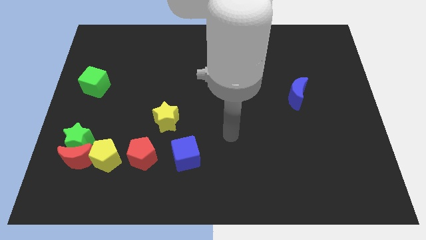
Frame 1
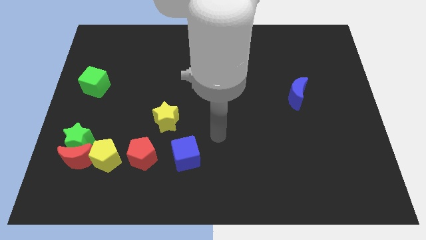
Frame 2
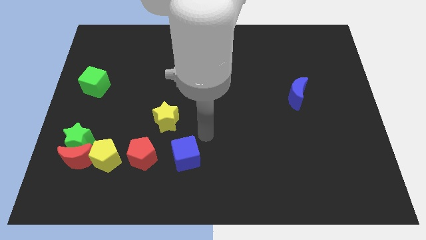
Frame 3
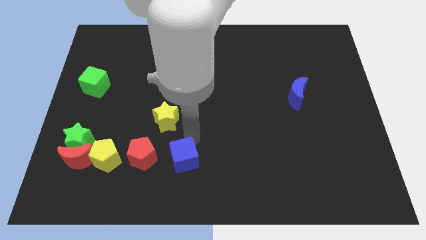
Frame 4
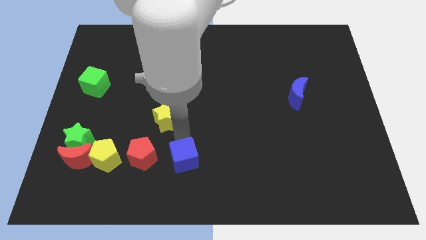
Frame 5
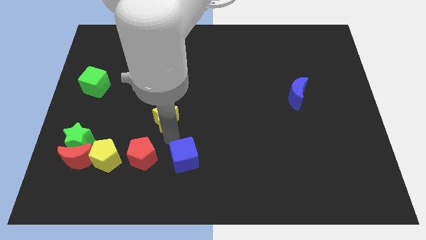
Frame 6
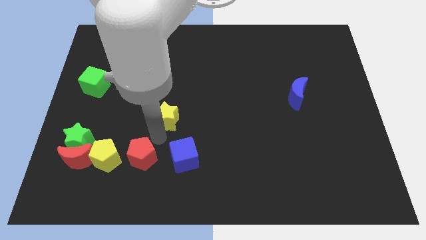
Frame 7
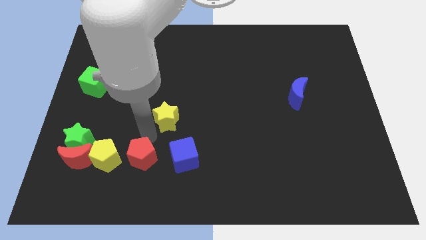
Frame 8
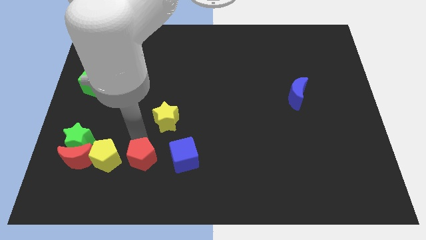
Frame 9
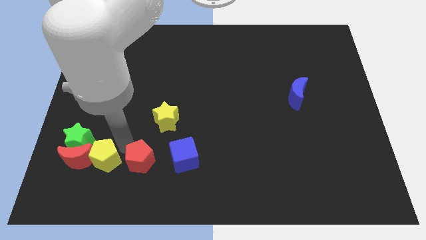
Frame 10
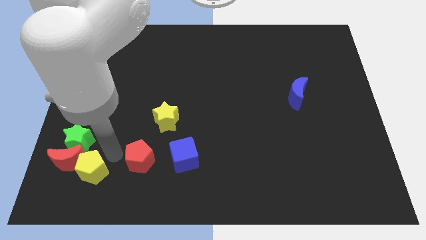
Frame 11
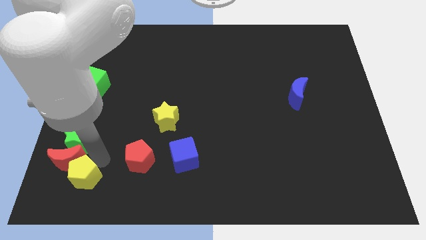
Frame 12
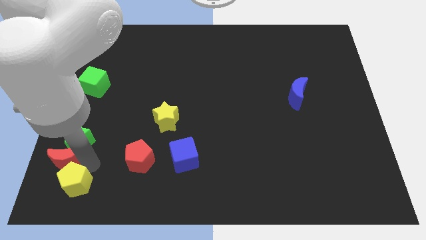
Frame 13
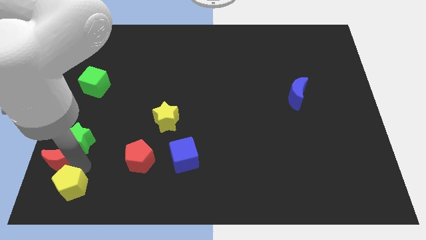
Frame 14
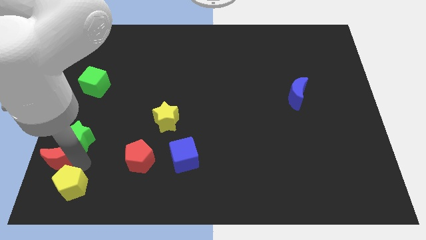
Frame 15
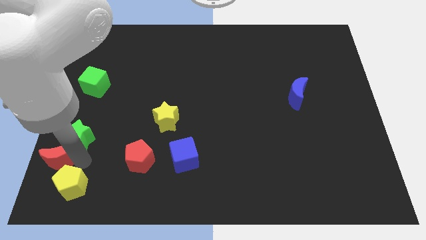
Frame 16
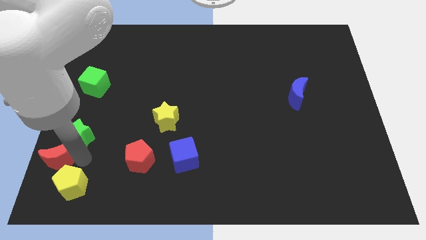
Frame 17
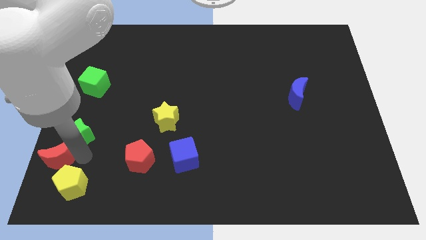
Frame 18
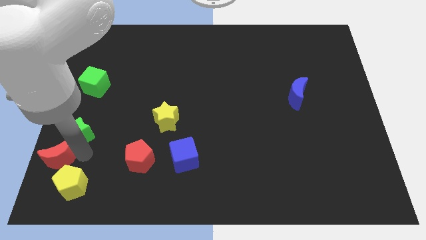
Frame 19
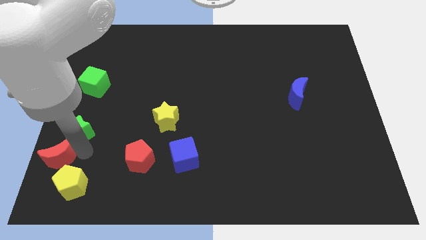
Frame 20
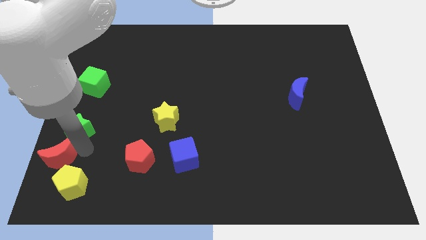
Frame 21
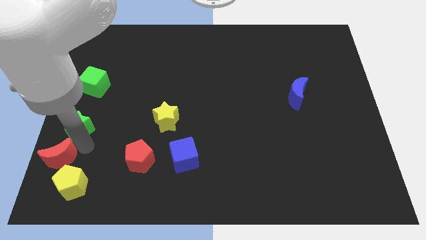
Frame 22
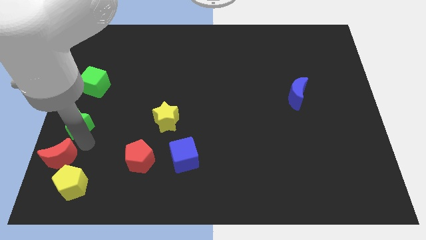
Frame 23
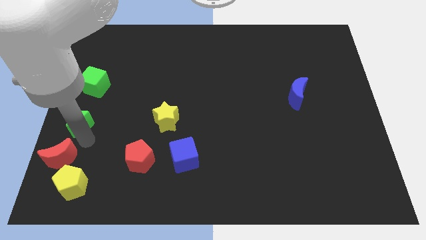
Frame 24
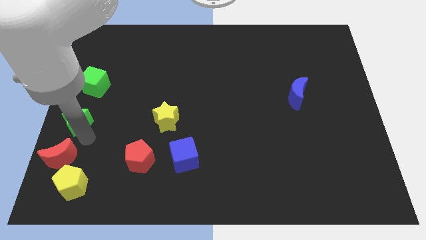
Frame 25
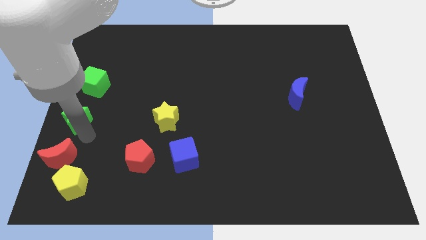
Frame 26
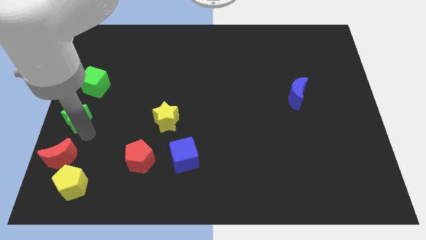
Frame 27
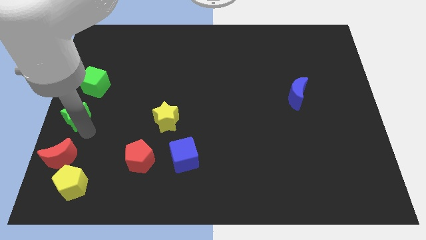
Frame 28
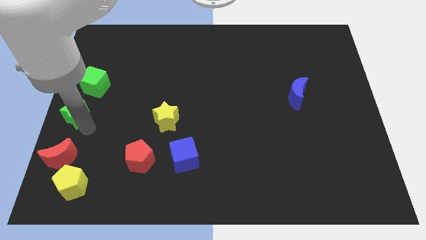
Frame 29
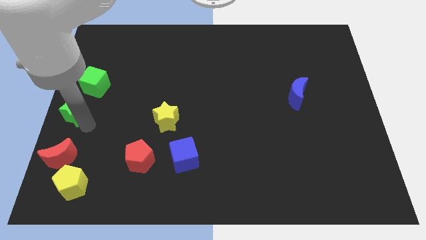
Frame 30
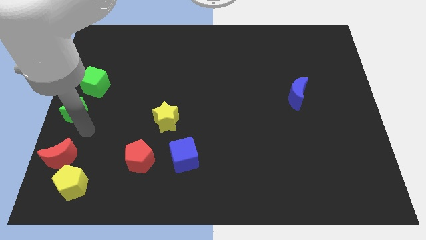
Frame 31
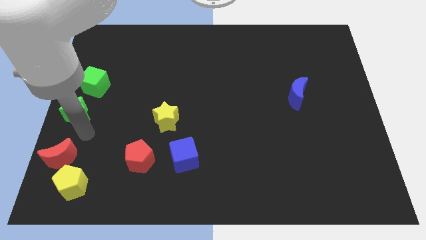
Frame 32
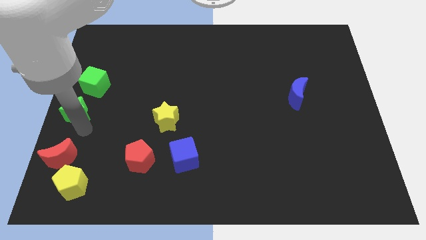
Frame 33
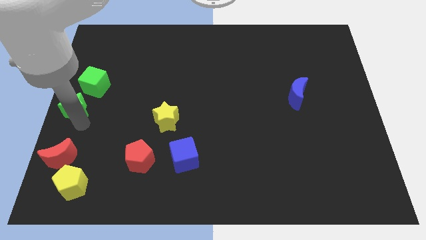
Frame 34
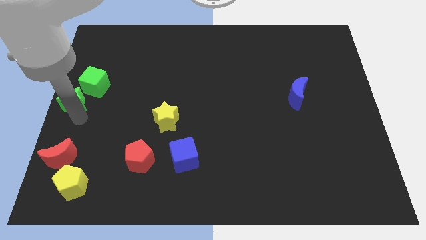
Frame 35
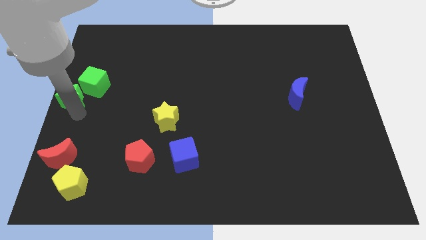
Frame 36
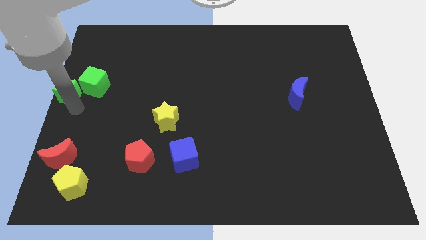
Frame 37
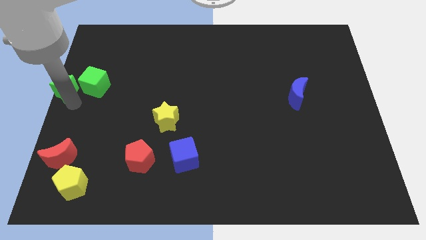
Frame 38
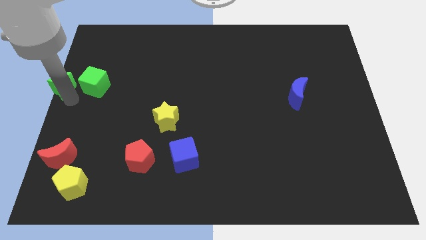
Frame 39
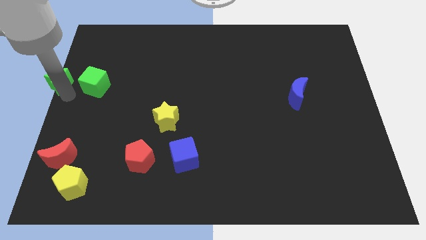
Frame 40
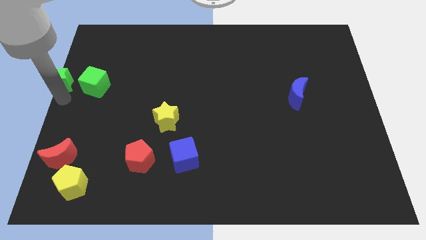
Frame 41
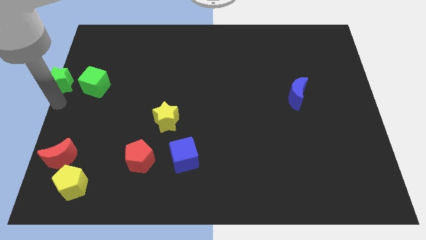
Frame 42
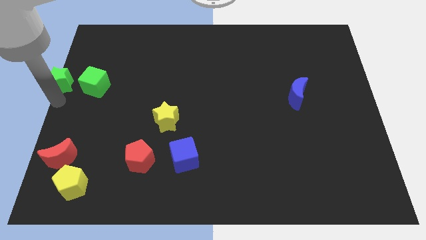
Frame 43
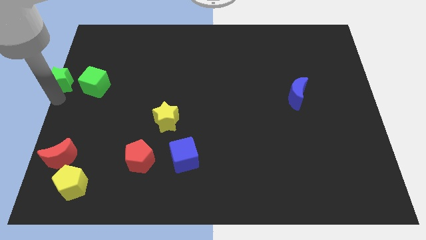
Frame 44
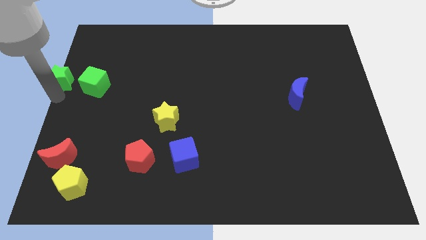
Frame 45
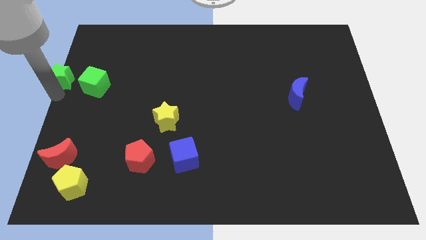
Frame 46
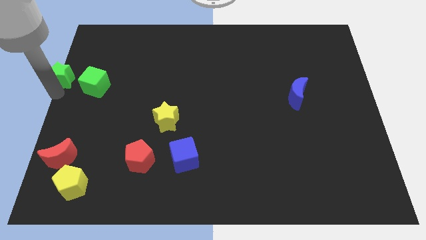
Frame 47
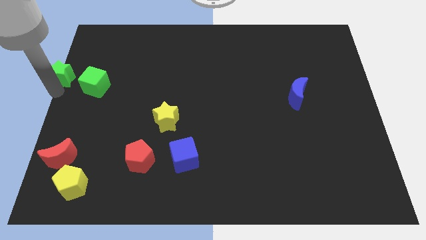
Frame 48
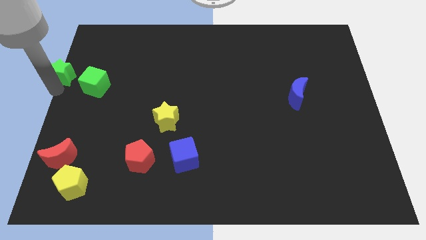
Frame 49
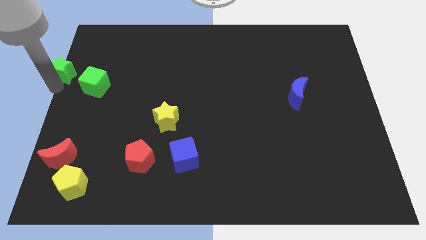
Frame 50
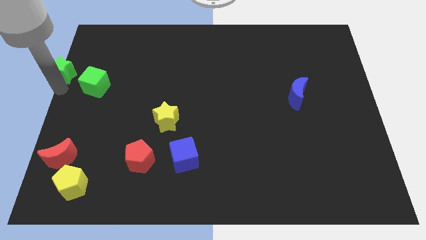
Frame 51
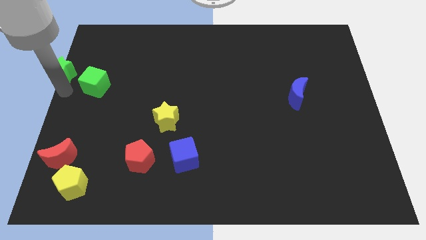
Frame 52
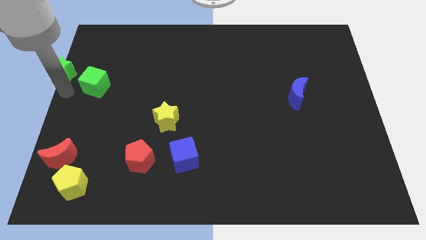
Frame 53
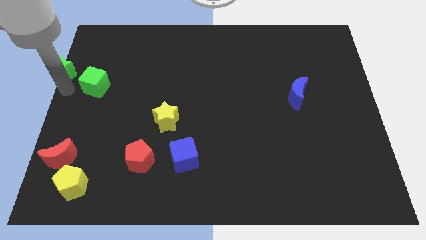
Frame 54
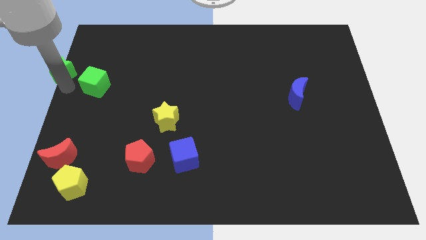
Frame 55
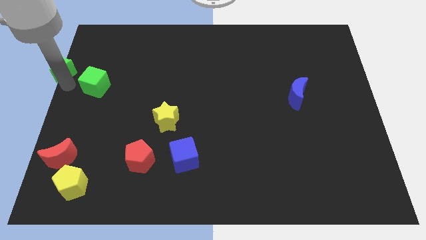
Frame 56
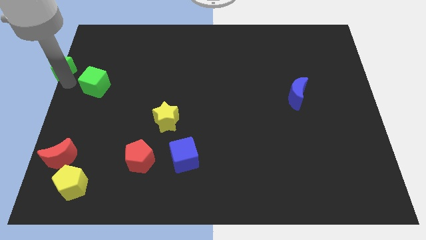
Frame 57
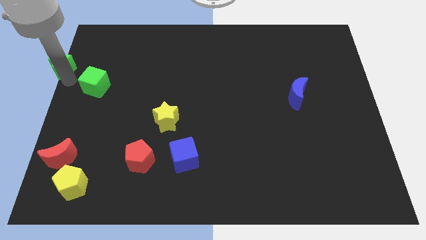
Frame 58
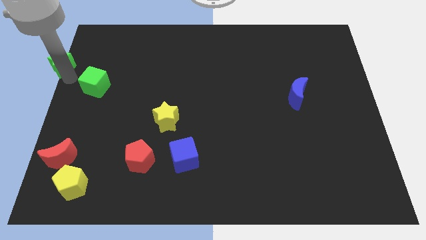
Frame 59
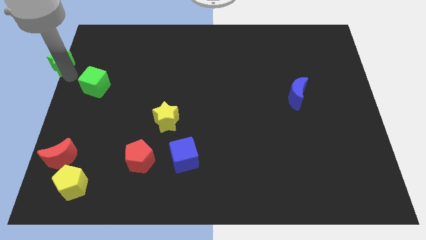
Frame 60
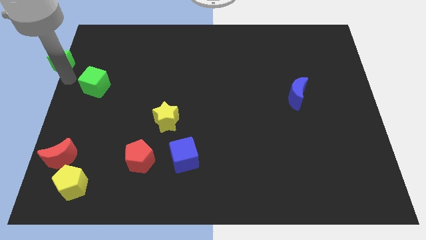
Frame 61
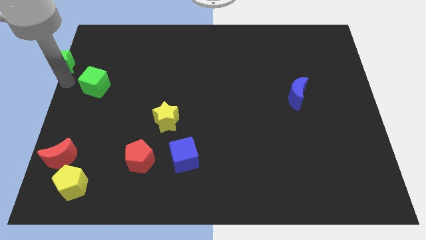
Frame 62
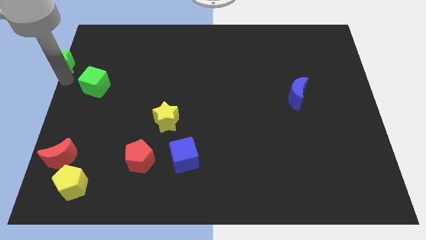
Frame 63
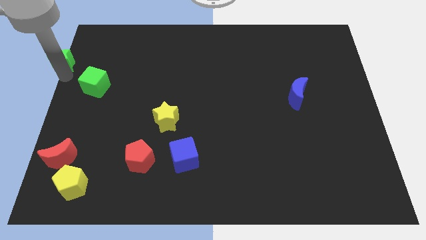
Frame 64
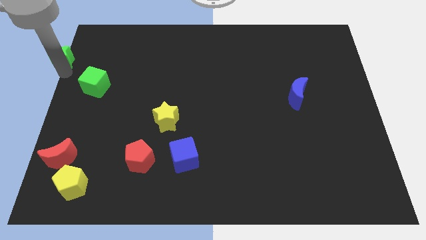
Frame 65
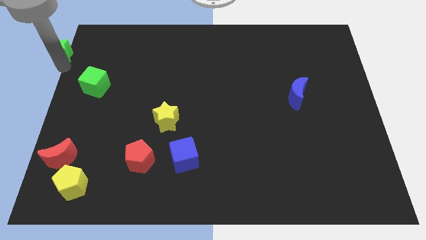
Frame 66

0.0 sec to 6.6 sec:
slide the green star to the top left of the board
